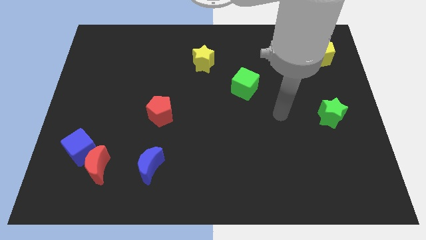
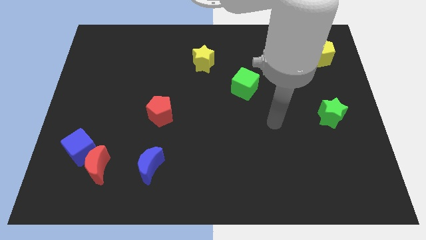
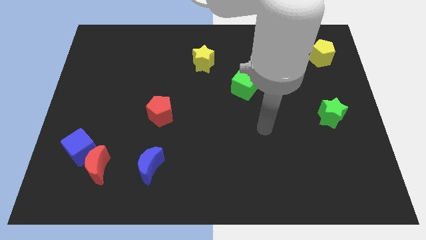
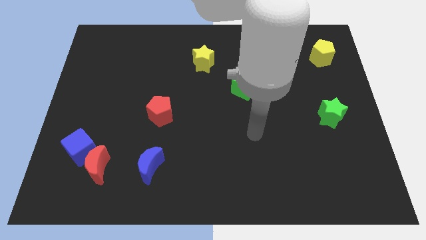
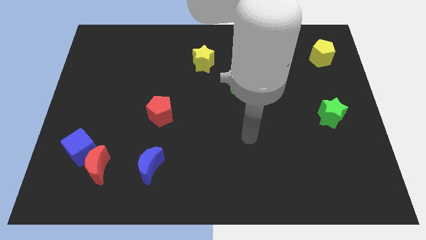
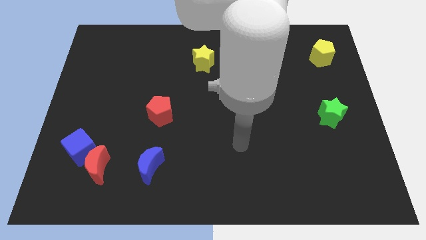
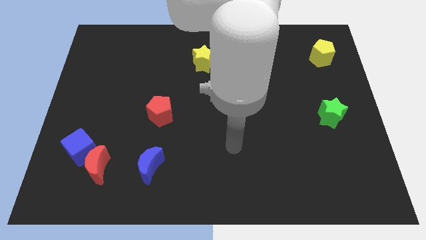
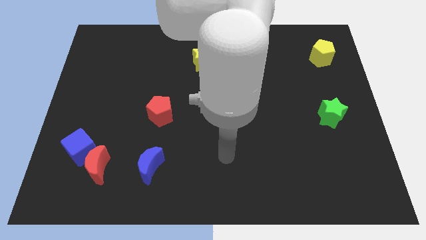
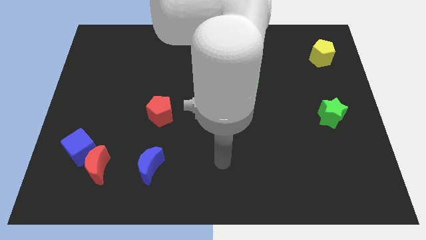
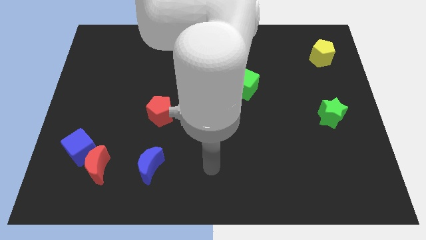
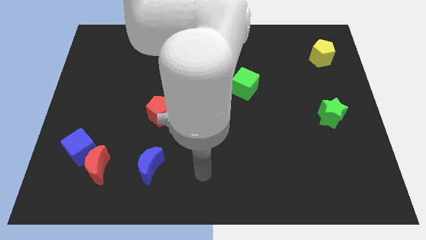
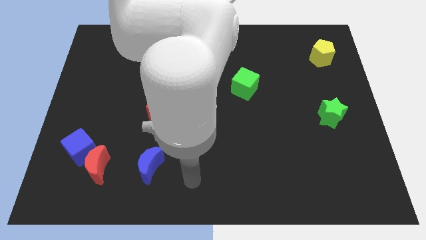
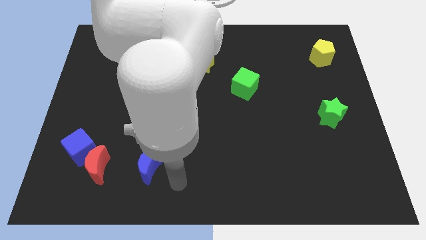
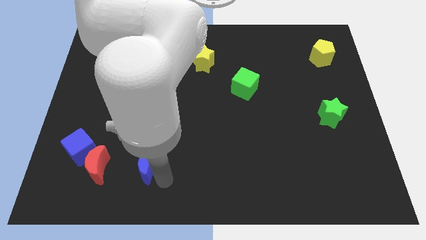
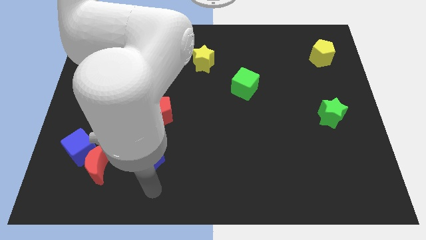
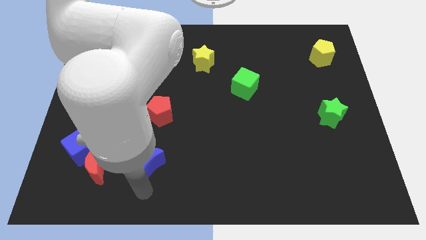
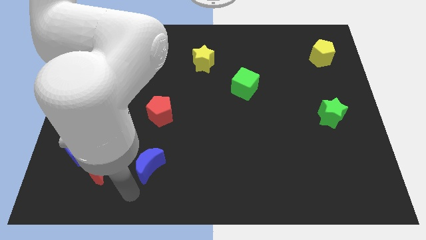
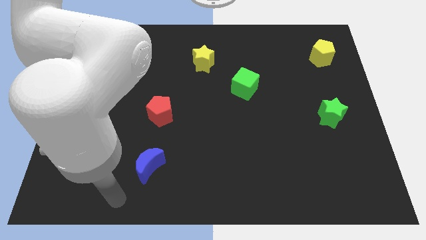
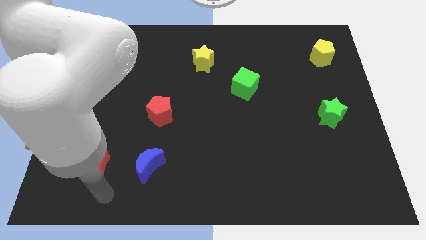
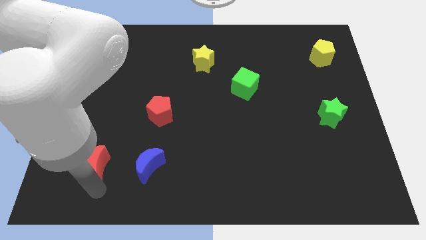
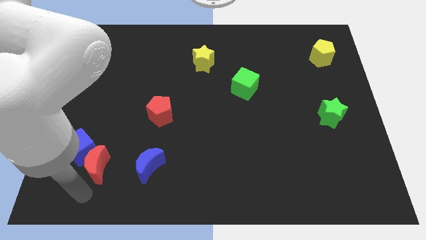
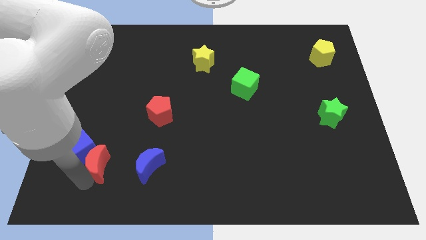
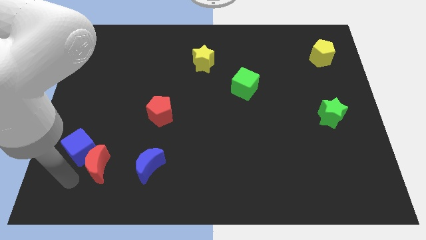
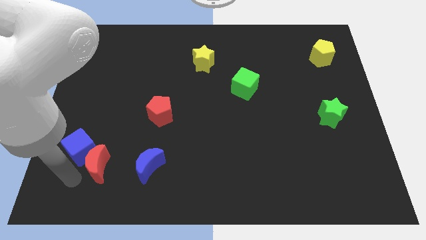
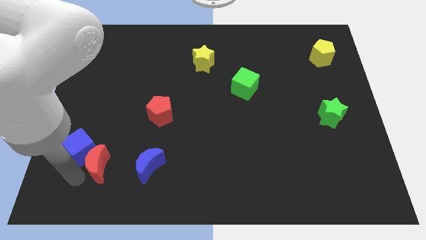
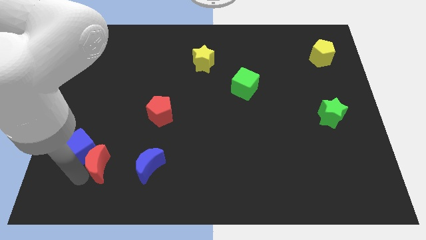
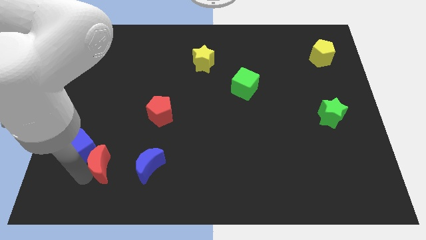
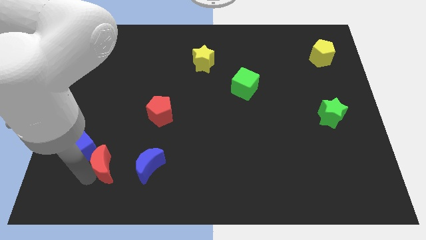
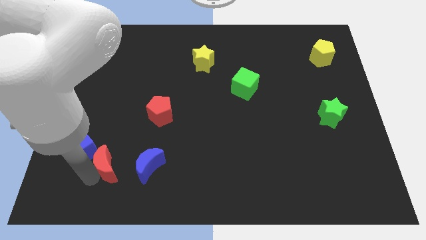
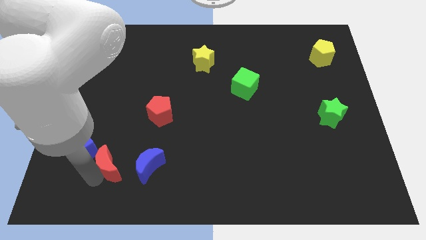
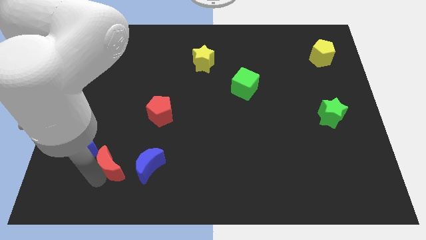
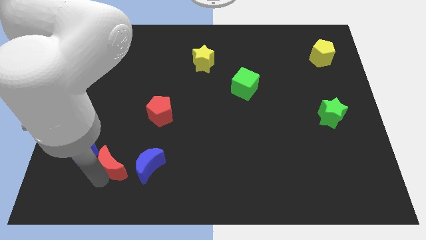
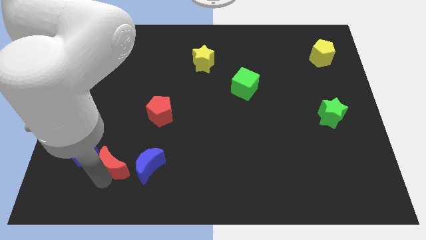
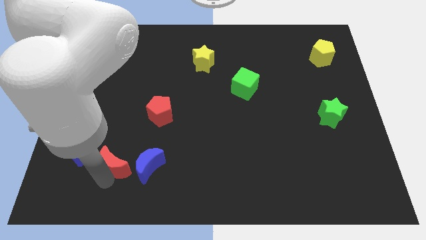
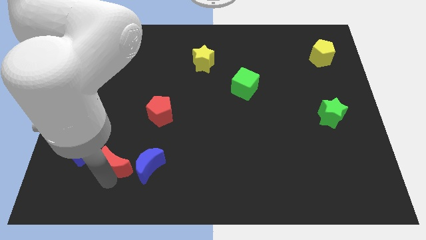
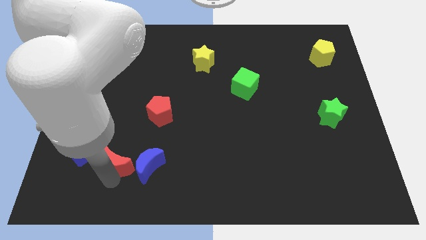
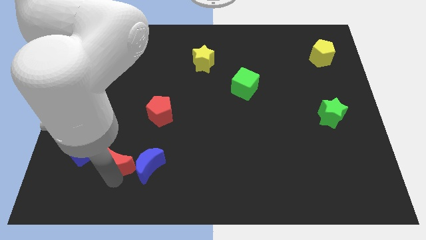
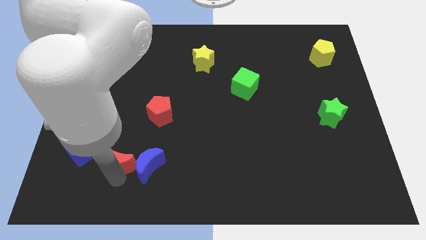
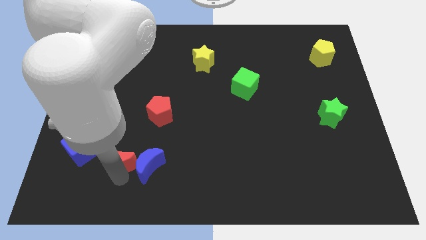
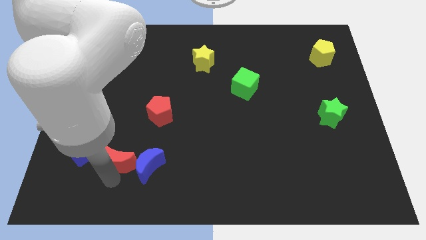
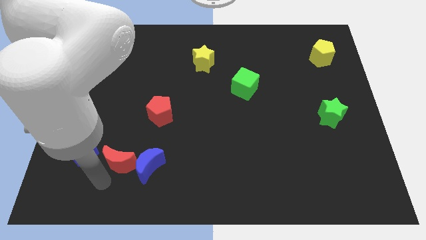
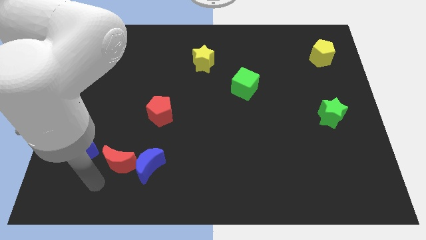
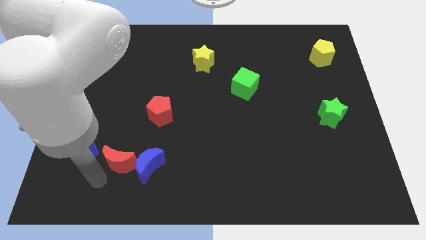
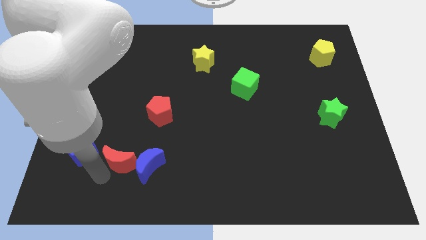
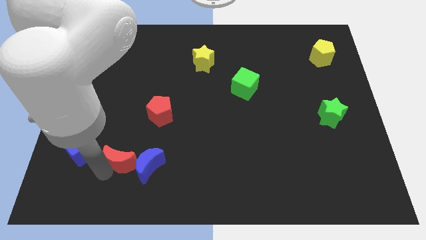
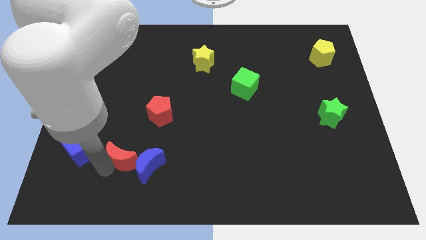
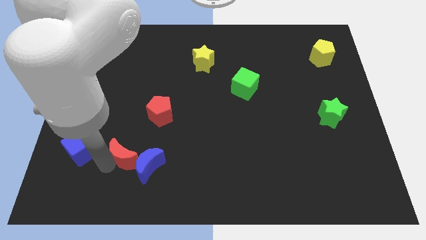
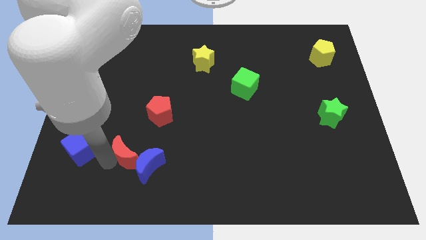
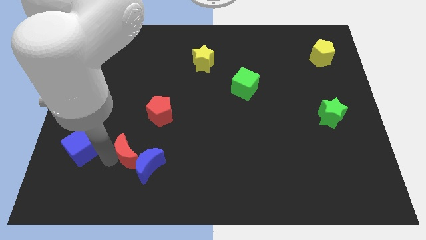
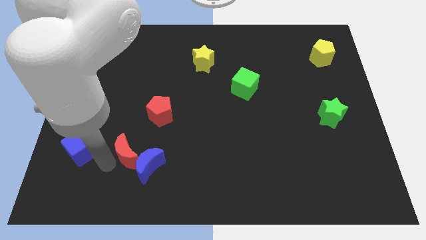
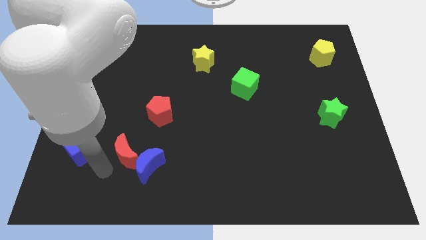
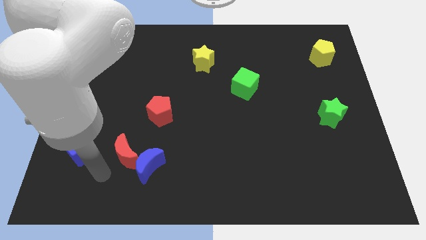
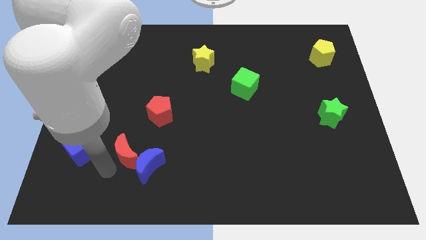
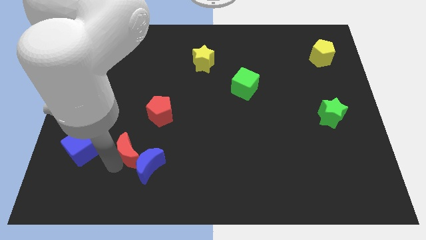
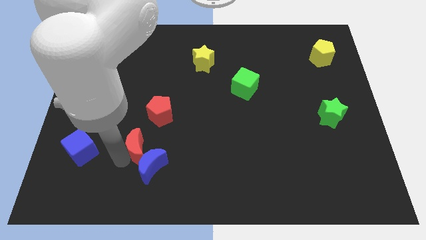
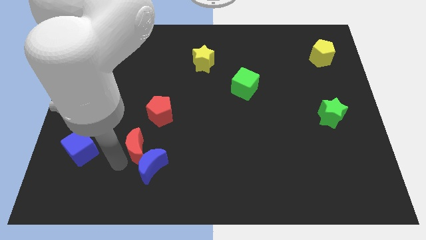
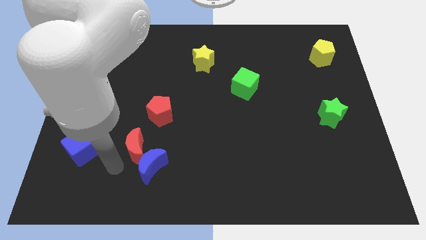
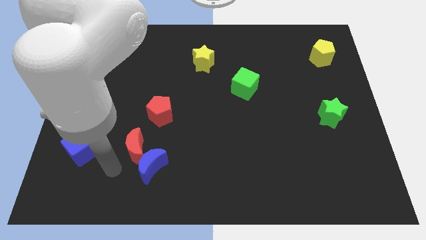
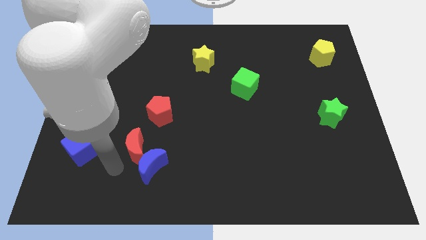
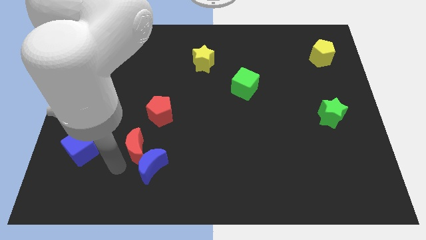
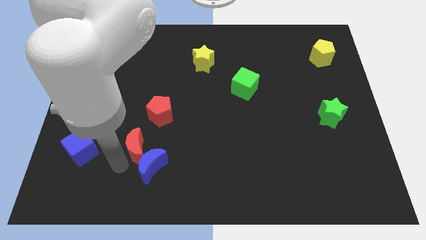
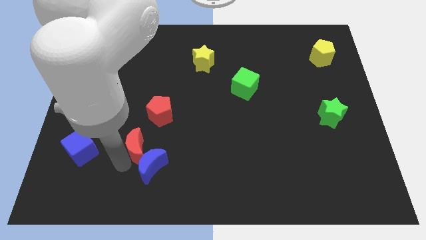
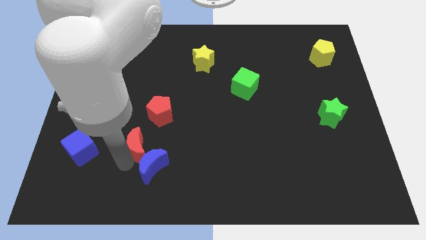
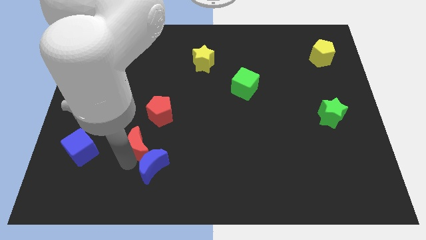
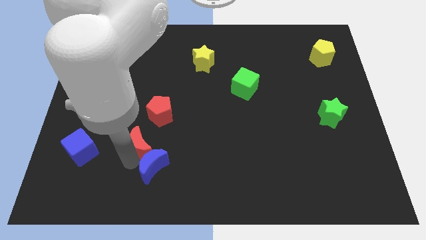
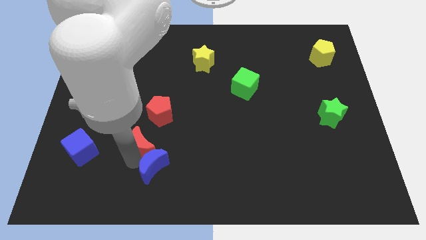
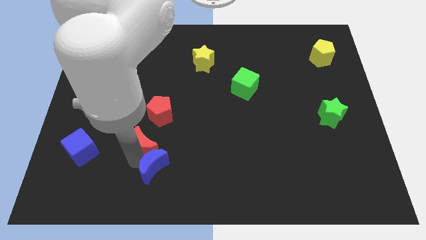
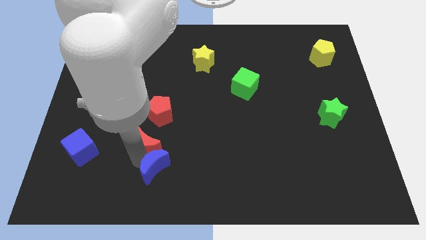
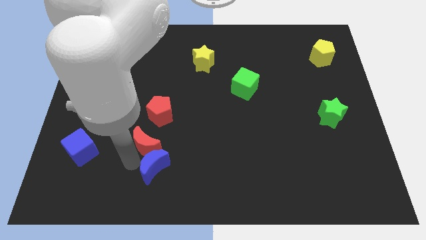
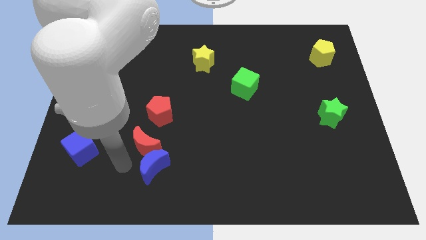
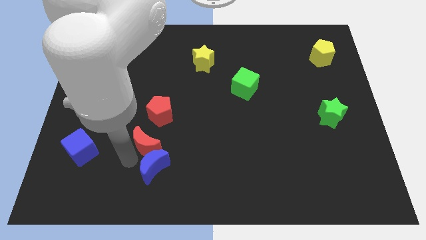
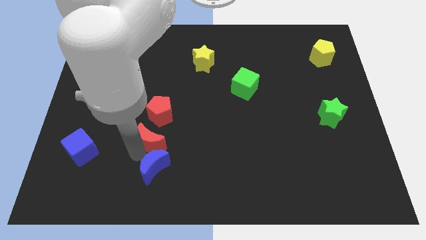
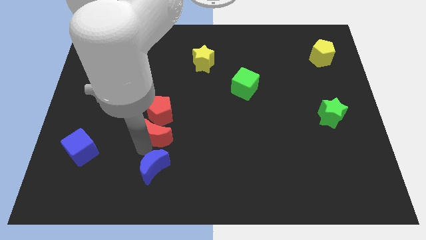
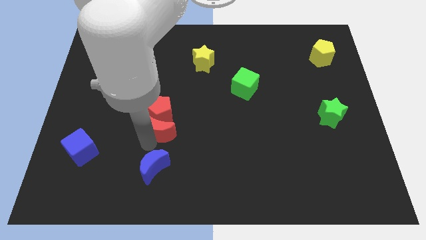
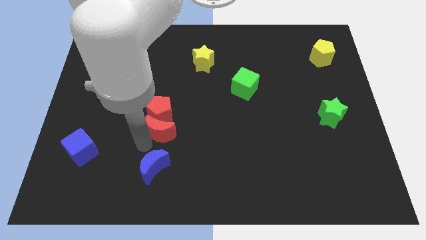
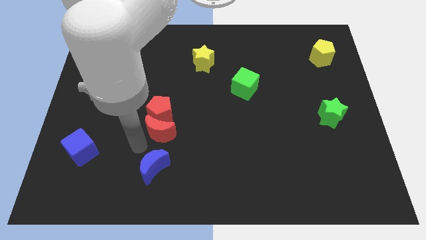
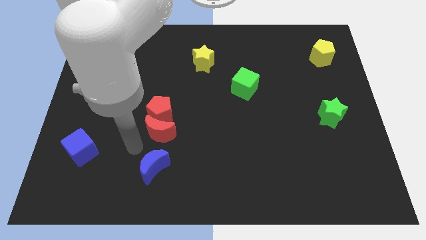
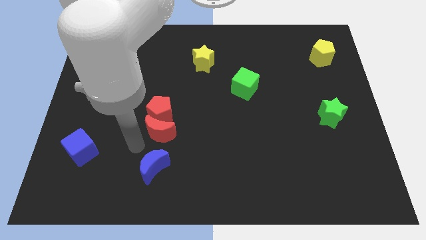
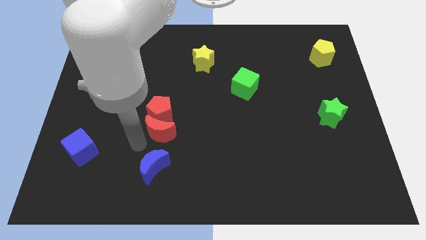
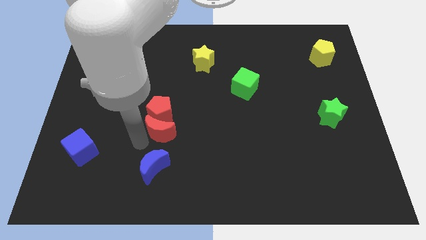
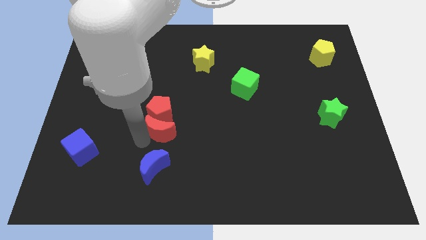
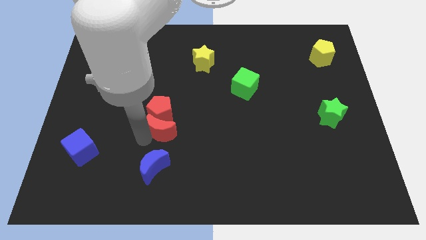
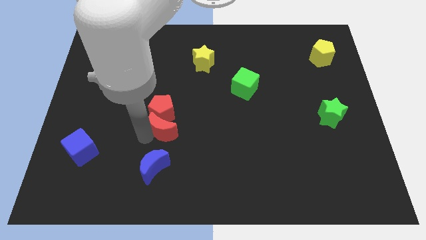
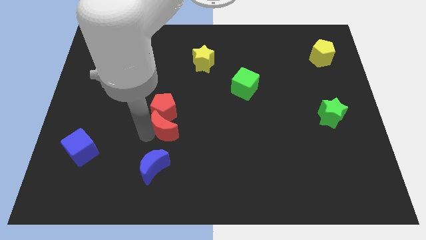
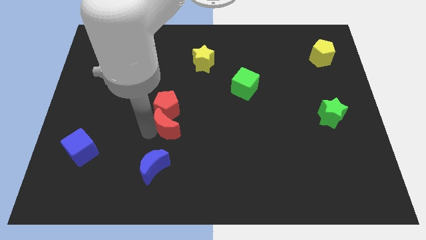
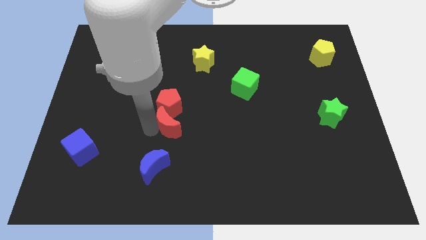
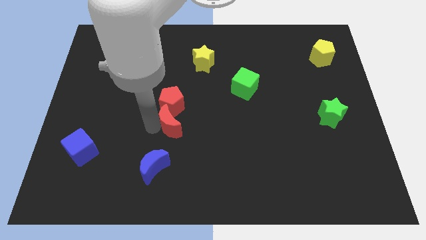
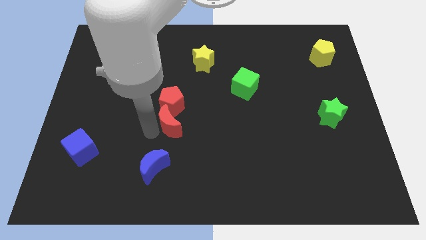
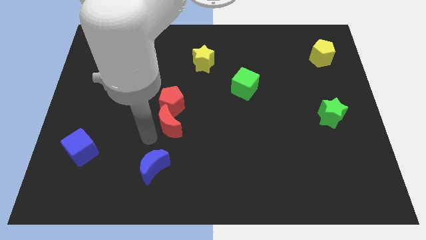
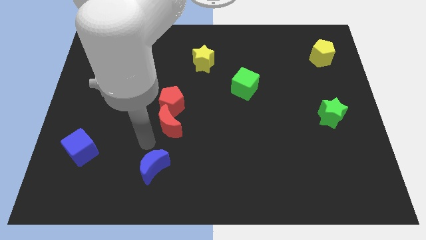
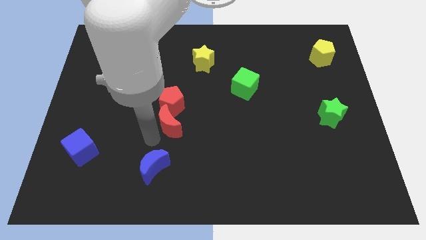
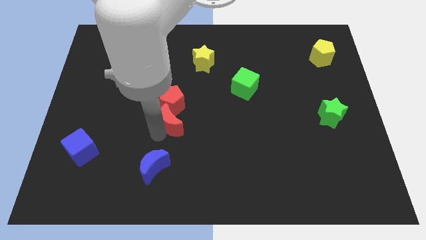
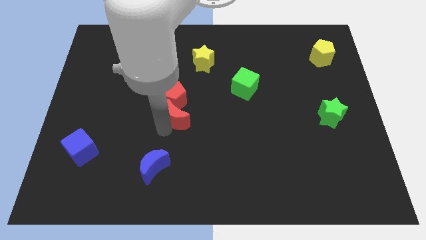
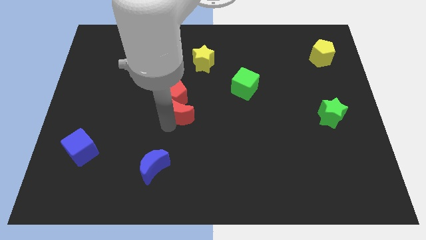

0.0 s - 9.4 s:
slide the red moon diagonally upwards and to the right
